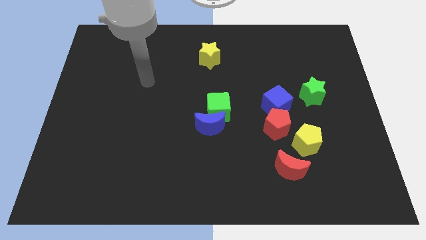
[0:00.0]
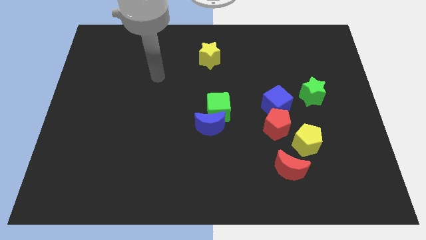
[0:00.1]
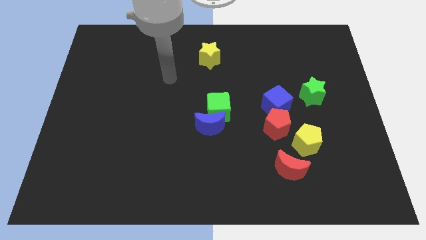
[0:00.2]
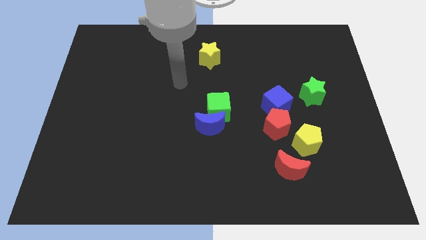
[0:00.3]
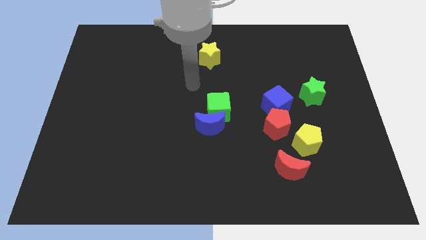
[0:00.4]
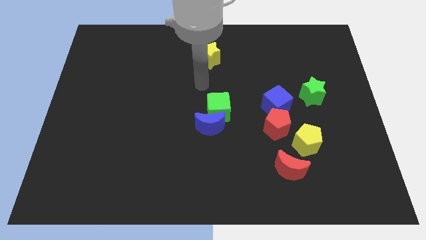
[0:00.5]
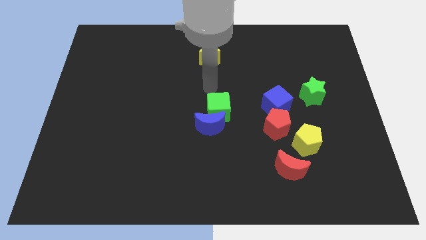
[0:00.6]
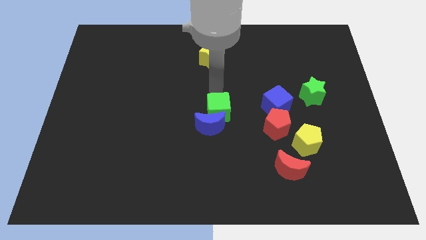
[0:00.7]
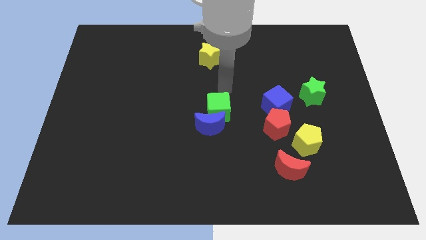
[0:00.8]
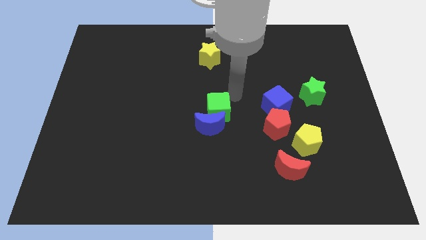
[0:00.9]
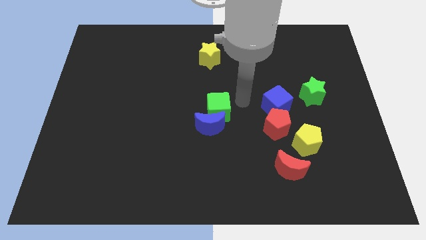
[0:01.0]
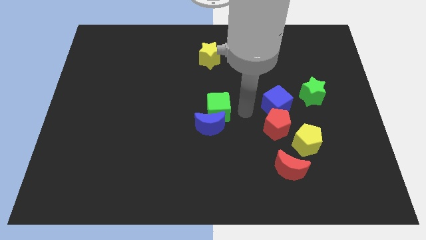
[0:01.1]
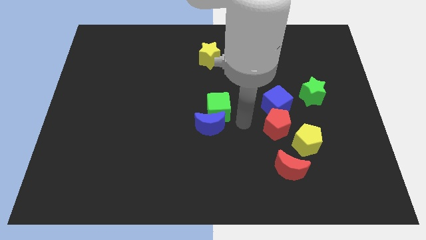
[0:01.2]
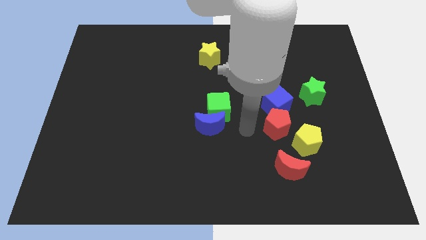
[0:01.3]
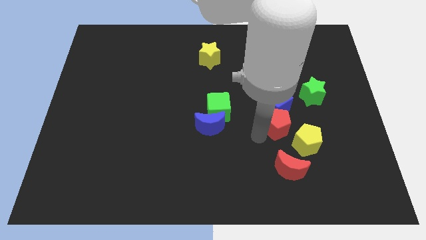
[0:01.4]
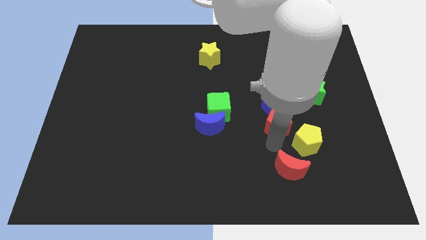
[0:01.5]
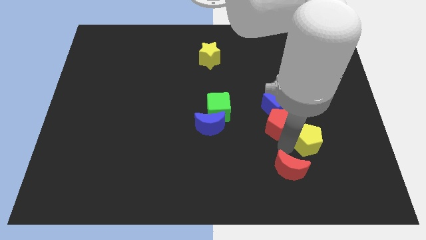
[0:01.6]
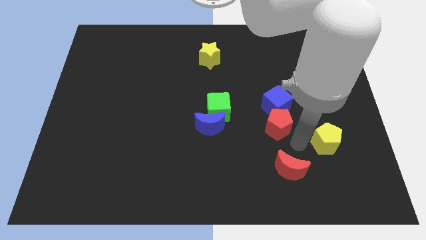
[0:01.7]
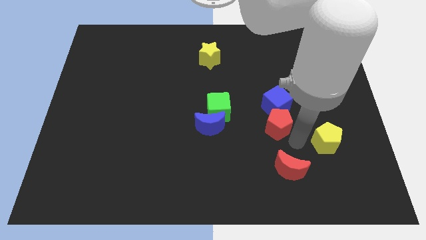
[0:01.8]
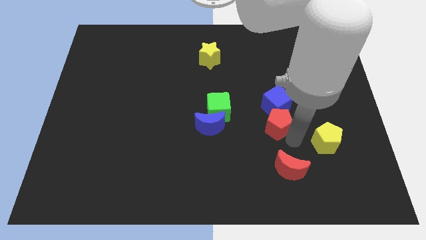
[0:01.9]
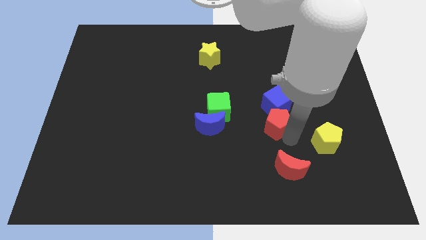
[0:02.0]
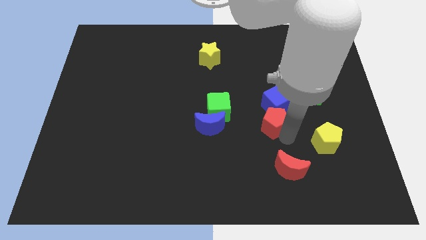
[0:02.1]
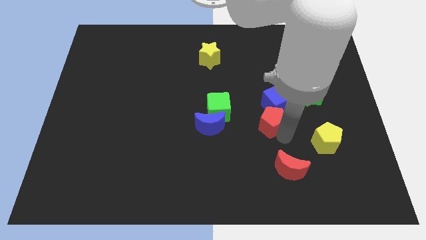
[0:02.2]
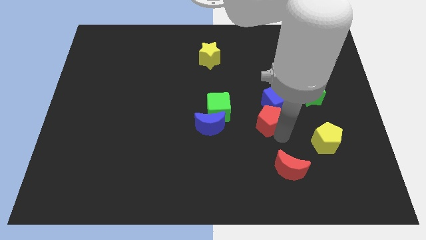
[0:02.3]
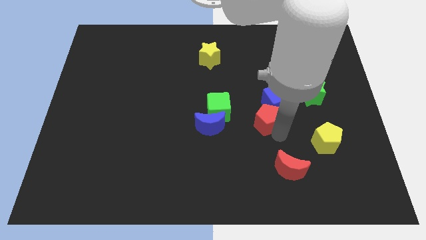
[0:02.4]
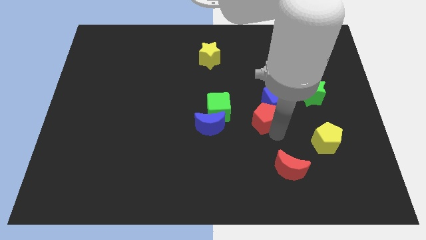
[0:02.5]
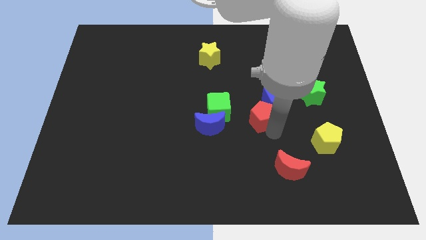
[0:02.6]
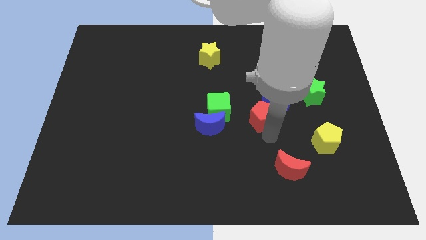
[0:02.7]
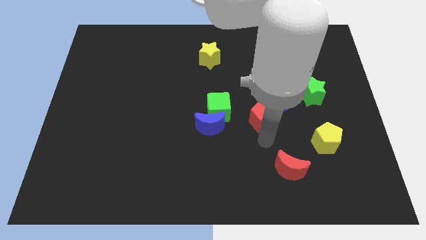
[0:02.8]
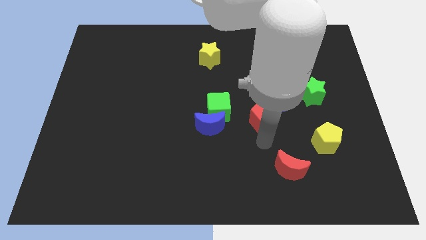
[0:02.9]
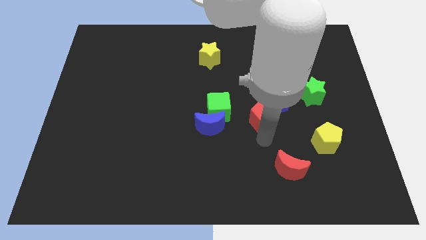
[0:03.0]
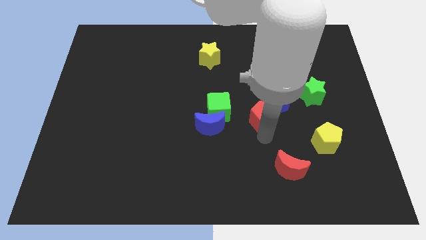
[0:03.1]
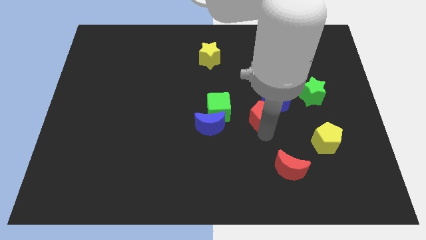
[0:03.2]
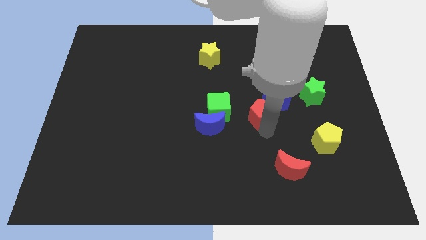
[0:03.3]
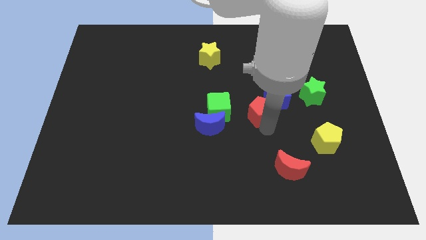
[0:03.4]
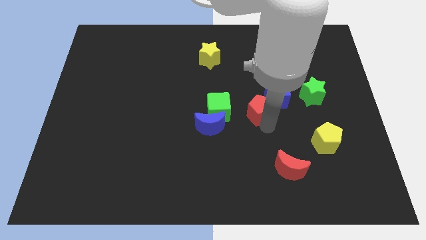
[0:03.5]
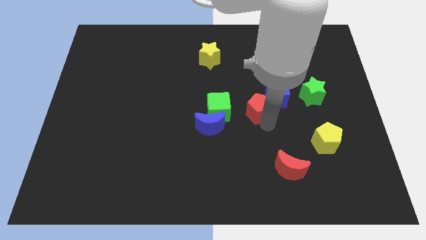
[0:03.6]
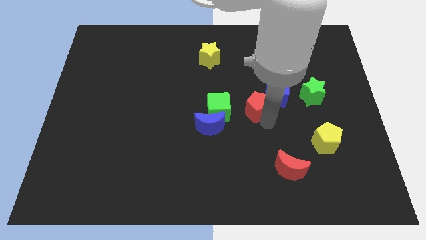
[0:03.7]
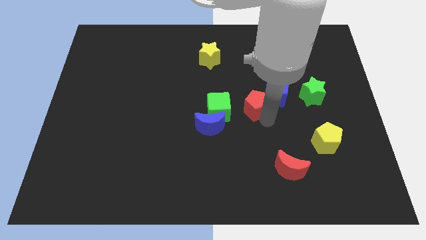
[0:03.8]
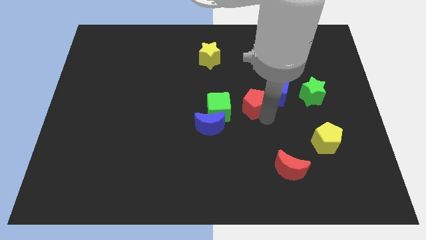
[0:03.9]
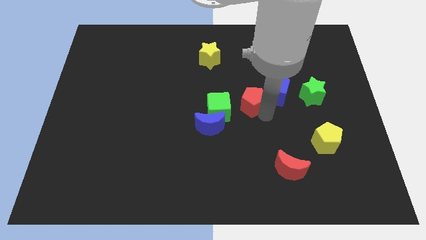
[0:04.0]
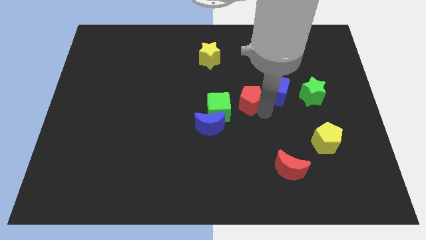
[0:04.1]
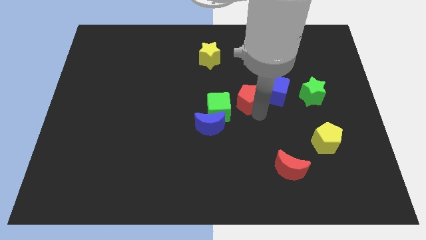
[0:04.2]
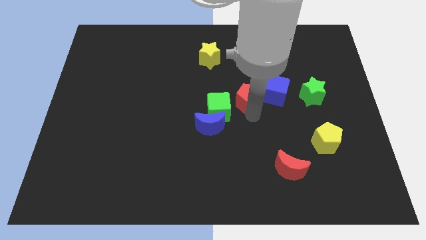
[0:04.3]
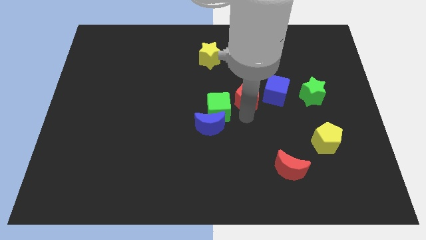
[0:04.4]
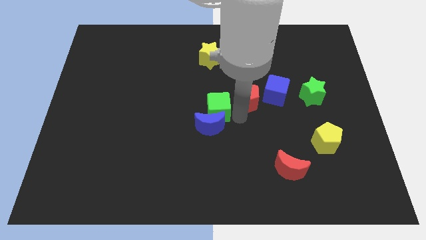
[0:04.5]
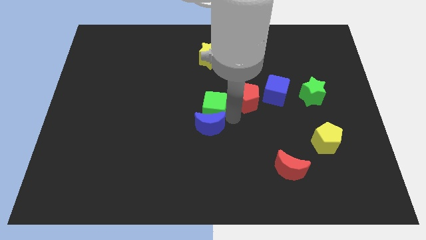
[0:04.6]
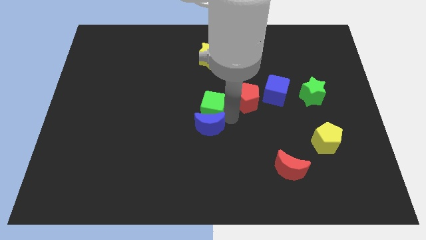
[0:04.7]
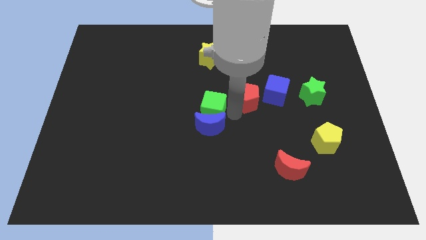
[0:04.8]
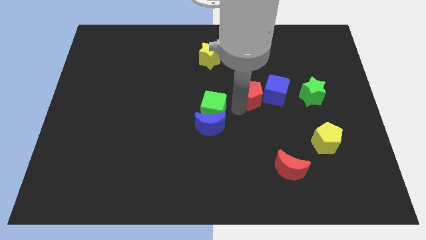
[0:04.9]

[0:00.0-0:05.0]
move the red pentagon upwards a little bit

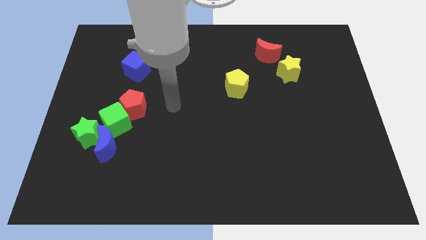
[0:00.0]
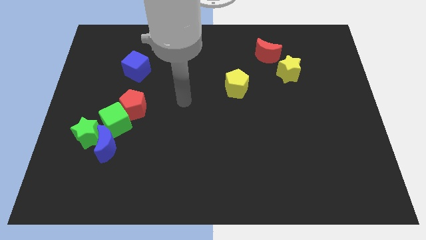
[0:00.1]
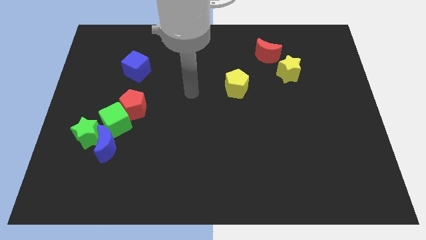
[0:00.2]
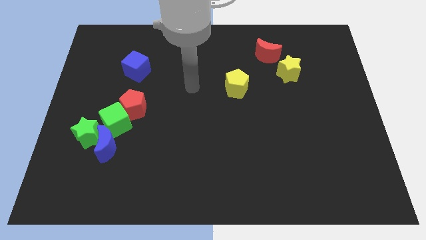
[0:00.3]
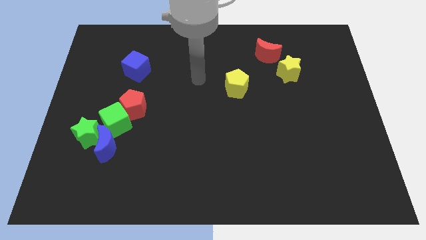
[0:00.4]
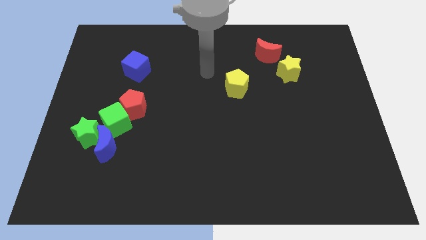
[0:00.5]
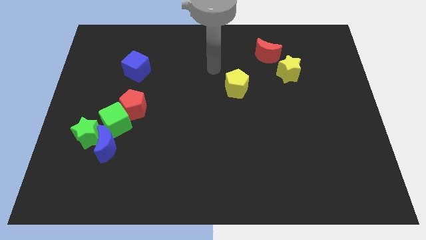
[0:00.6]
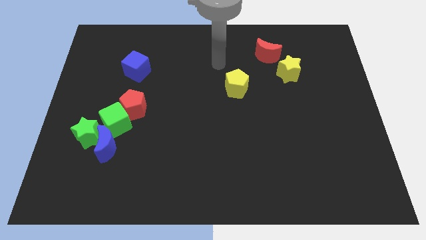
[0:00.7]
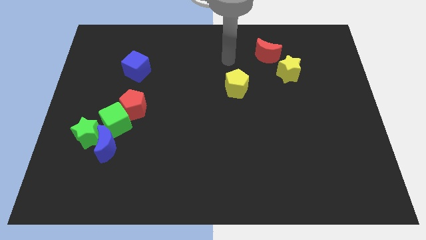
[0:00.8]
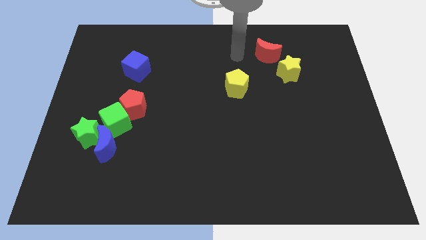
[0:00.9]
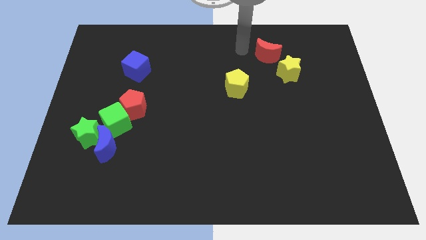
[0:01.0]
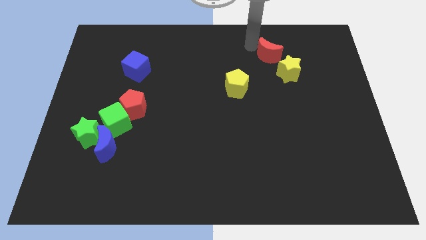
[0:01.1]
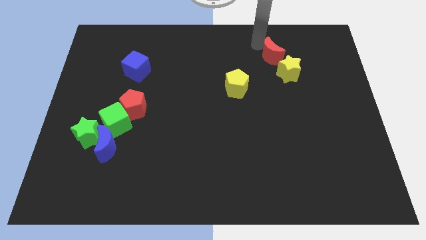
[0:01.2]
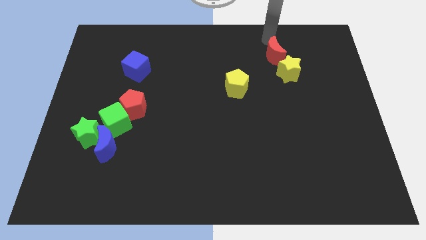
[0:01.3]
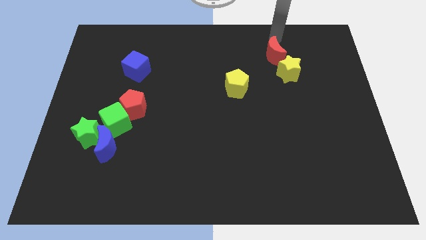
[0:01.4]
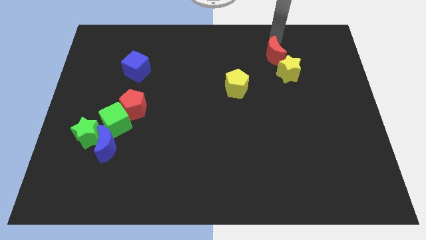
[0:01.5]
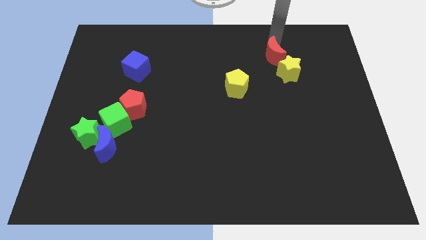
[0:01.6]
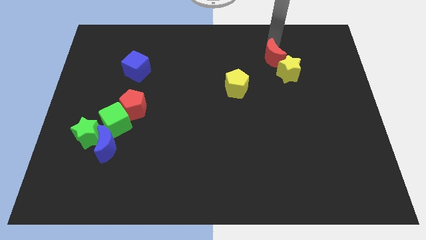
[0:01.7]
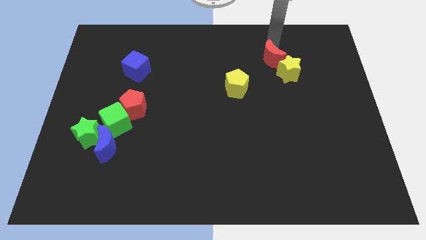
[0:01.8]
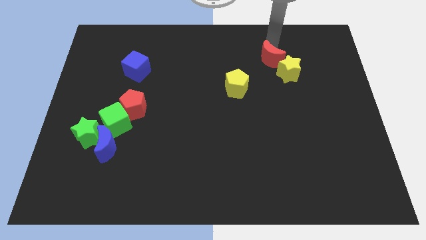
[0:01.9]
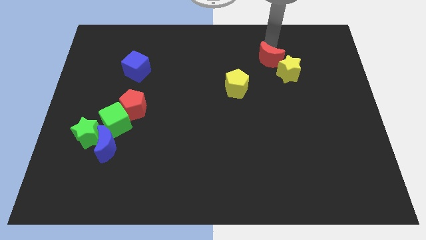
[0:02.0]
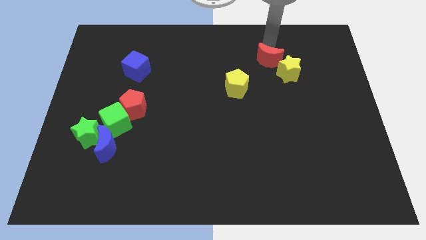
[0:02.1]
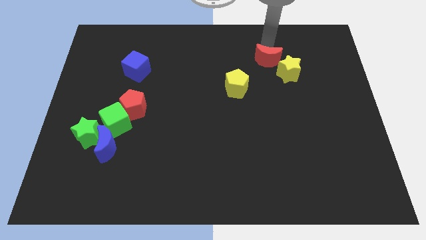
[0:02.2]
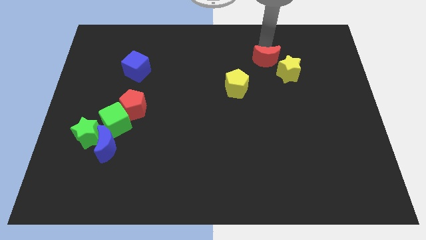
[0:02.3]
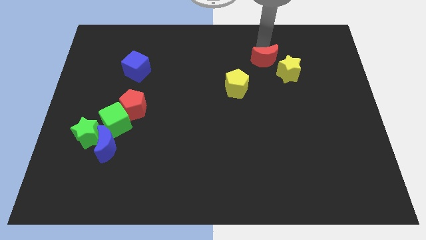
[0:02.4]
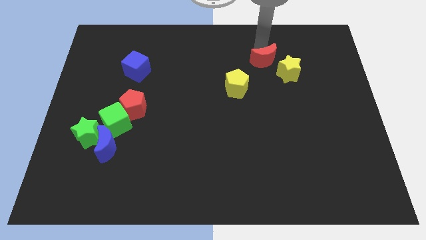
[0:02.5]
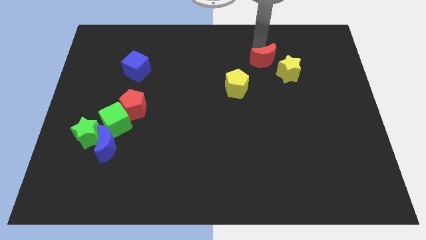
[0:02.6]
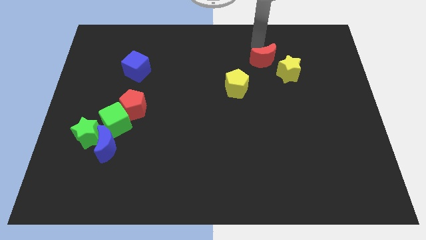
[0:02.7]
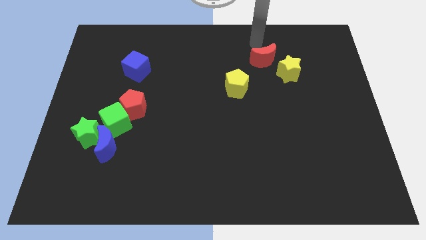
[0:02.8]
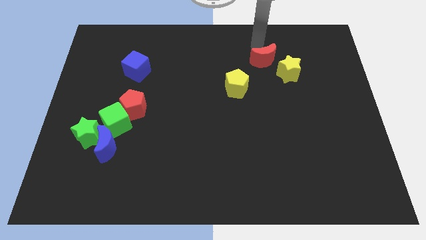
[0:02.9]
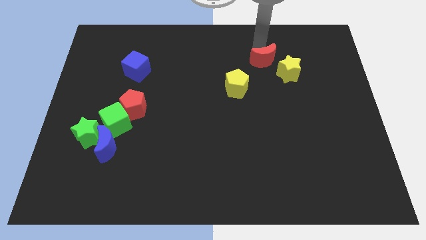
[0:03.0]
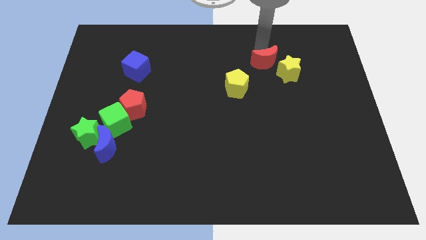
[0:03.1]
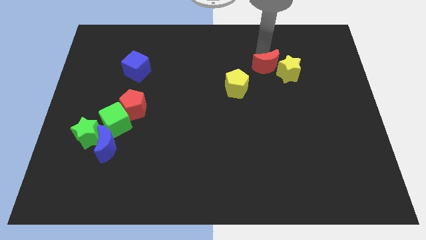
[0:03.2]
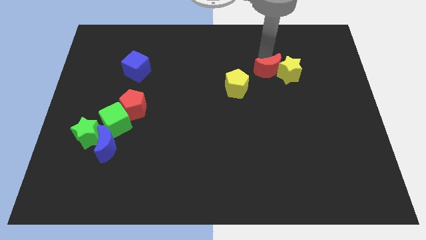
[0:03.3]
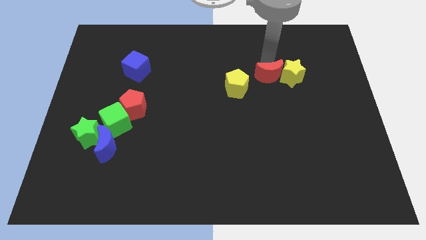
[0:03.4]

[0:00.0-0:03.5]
slightly slide the red moon down
